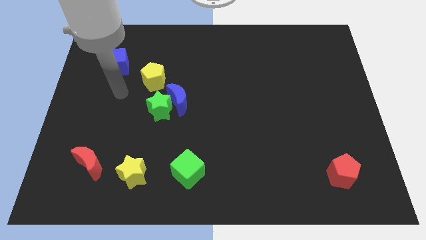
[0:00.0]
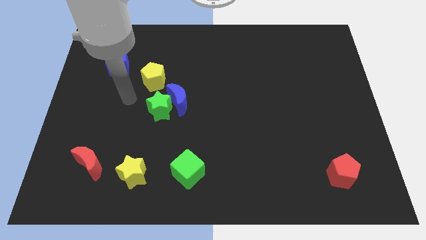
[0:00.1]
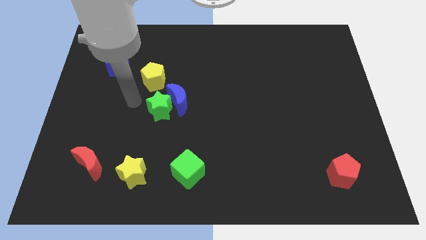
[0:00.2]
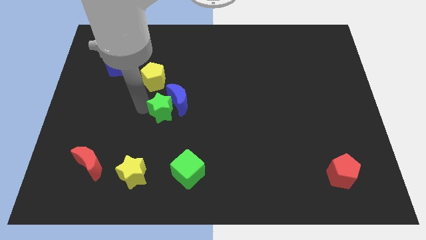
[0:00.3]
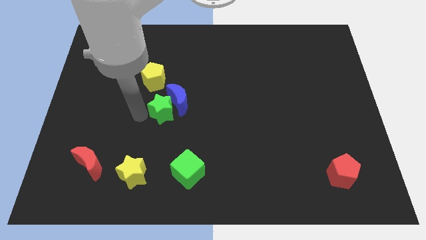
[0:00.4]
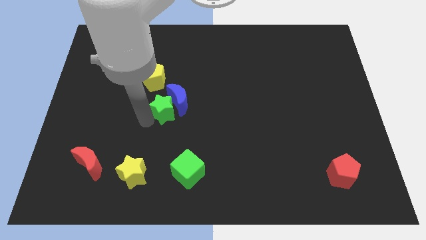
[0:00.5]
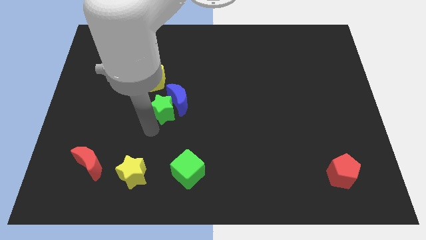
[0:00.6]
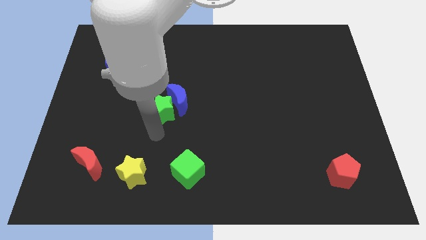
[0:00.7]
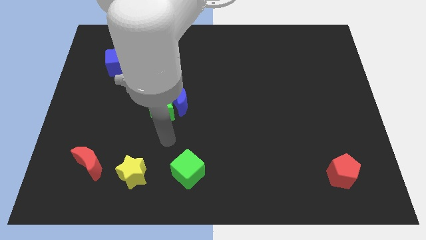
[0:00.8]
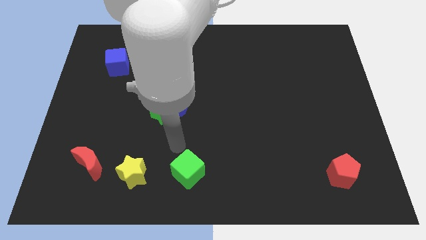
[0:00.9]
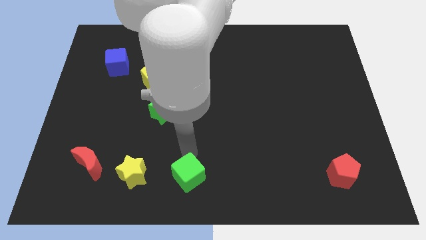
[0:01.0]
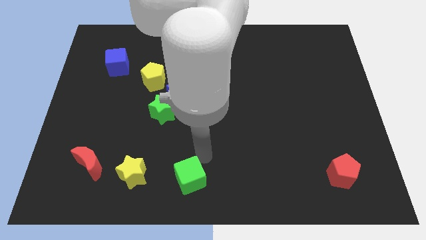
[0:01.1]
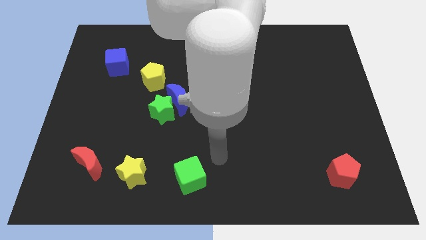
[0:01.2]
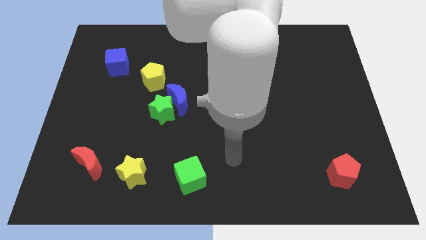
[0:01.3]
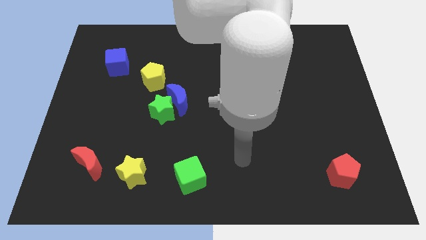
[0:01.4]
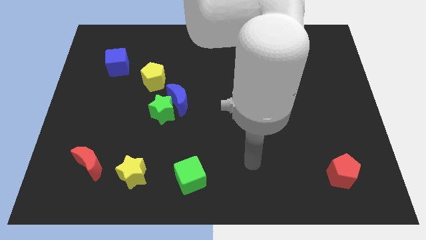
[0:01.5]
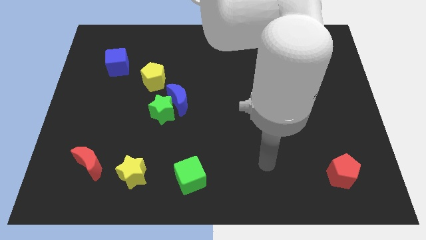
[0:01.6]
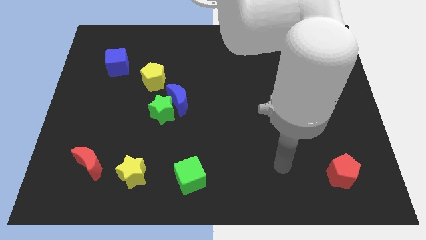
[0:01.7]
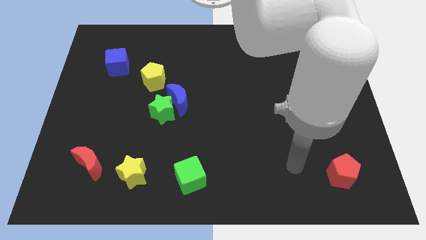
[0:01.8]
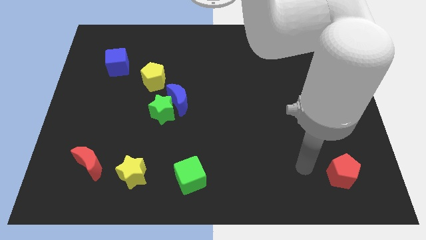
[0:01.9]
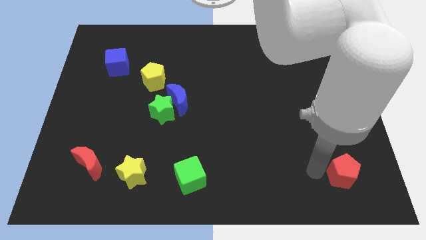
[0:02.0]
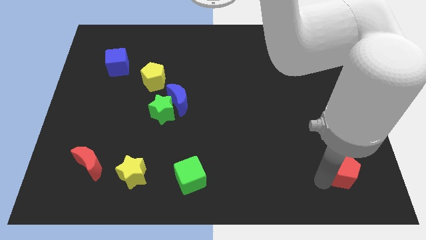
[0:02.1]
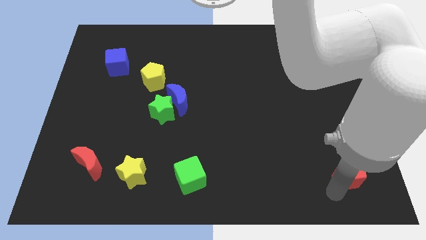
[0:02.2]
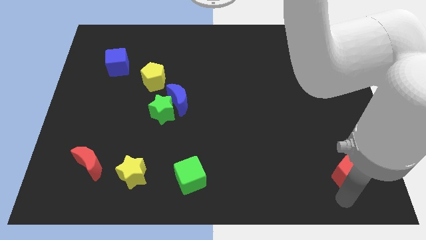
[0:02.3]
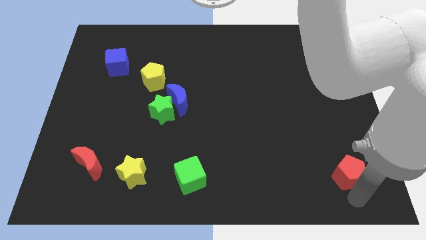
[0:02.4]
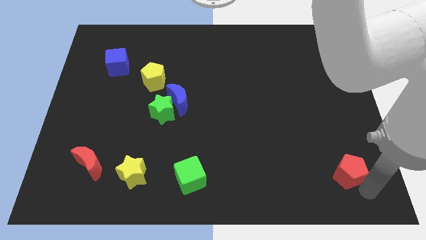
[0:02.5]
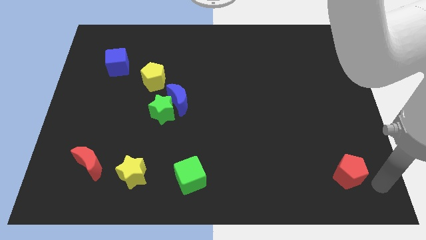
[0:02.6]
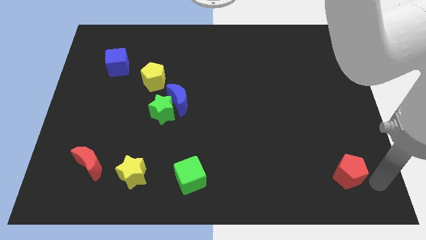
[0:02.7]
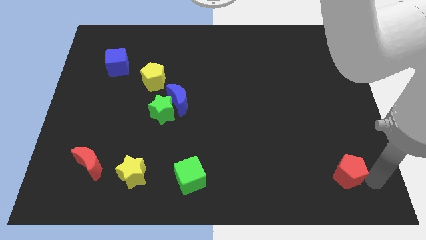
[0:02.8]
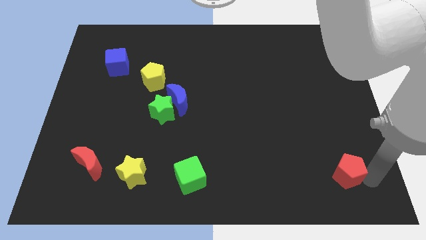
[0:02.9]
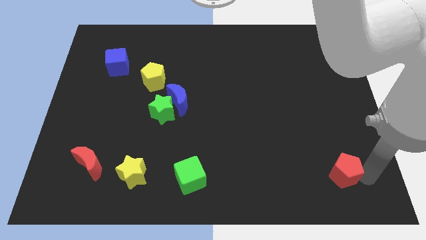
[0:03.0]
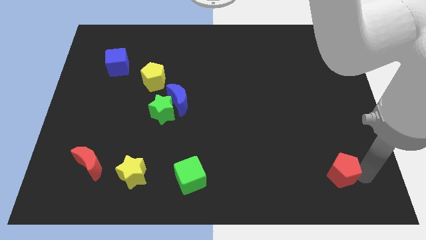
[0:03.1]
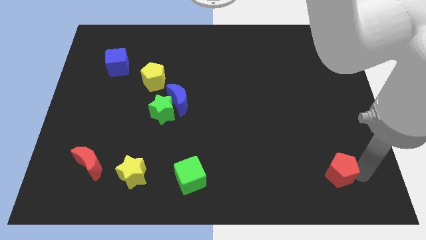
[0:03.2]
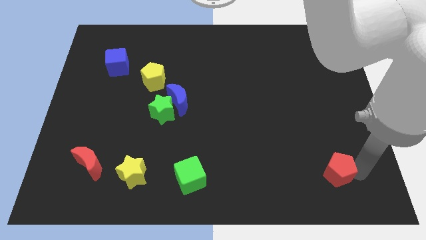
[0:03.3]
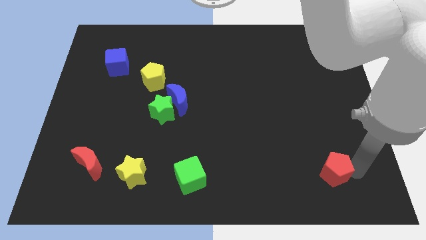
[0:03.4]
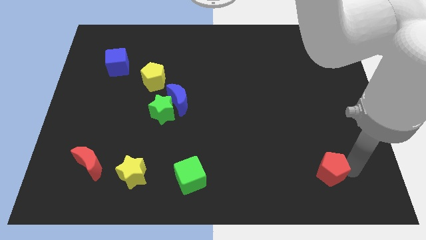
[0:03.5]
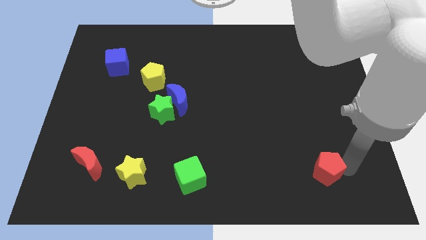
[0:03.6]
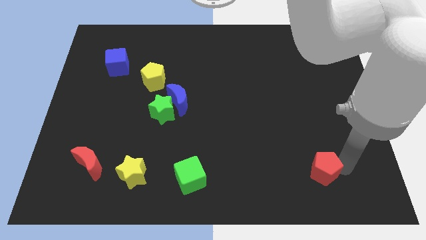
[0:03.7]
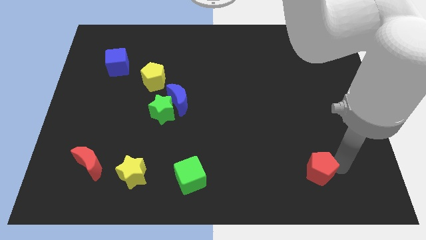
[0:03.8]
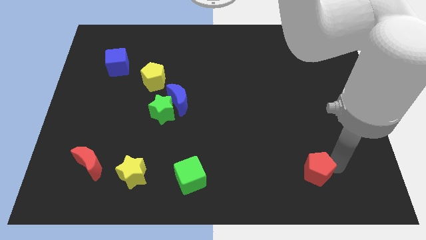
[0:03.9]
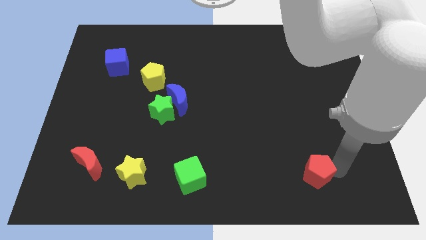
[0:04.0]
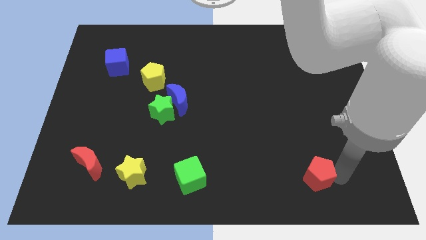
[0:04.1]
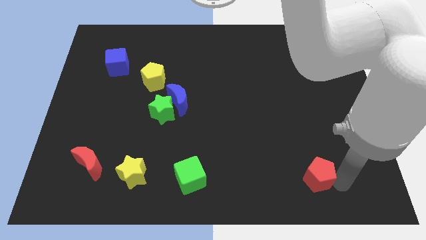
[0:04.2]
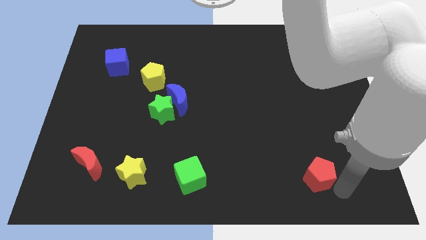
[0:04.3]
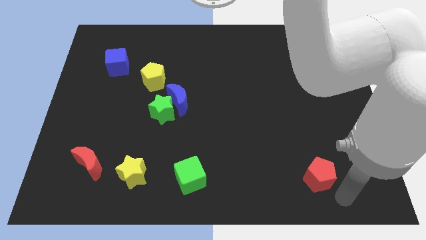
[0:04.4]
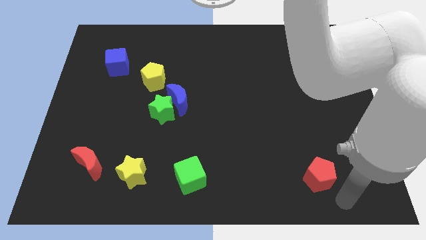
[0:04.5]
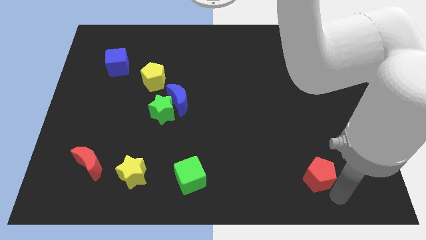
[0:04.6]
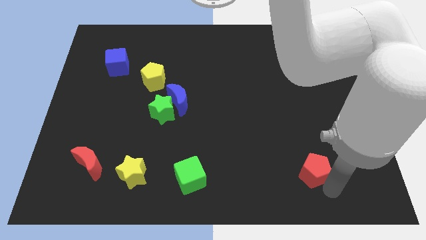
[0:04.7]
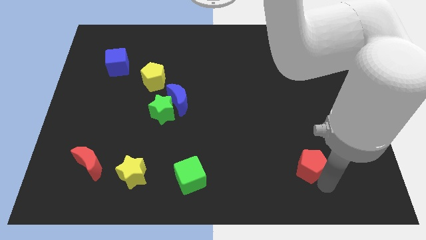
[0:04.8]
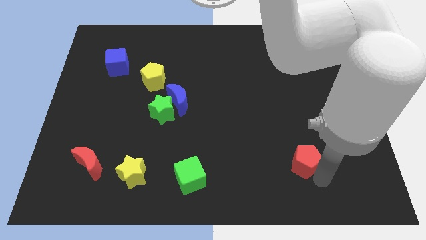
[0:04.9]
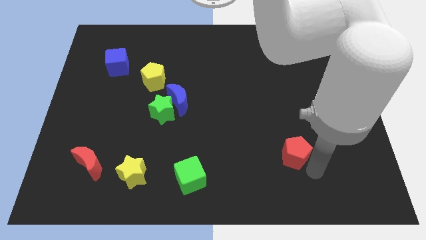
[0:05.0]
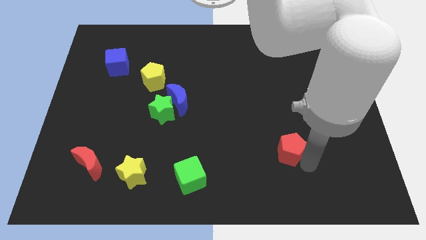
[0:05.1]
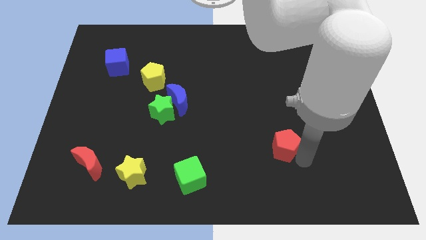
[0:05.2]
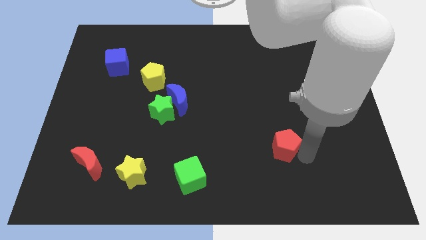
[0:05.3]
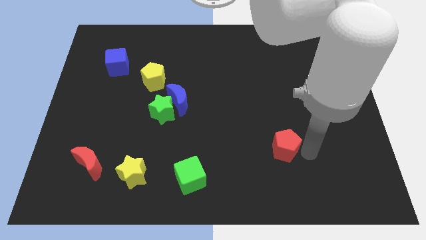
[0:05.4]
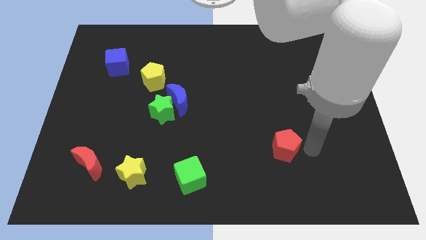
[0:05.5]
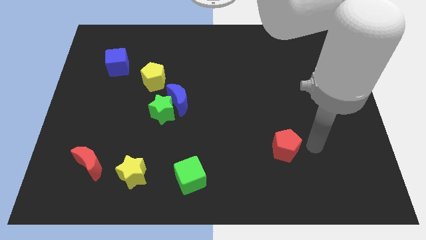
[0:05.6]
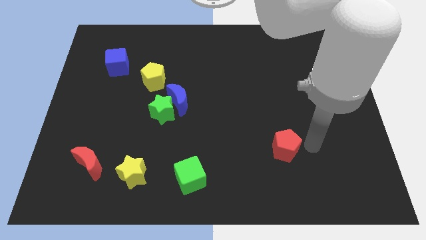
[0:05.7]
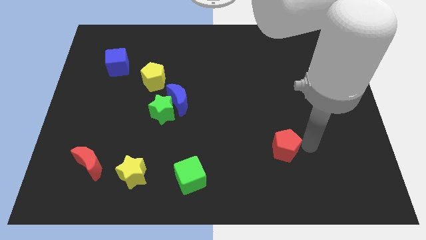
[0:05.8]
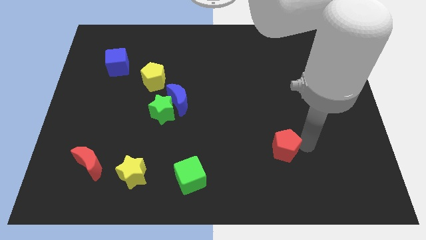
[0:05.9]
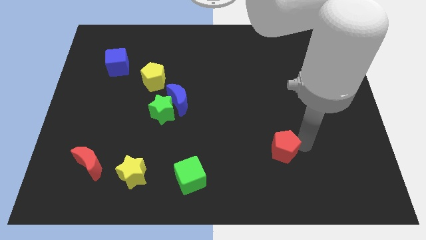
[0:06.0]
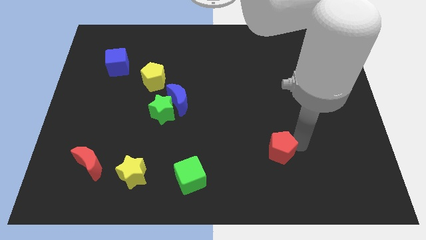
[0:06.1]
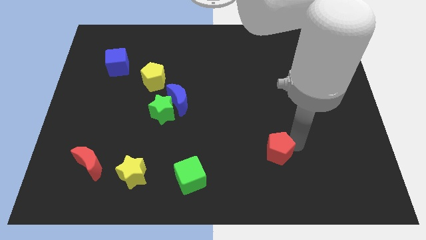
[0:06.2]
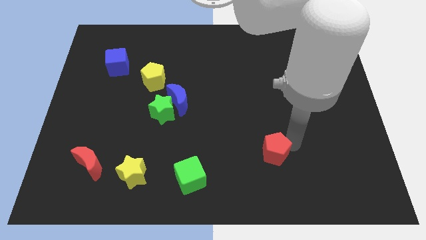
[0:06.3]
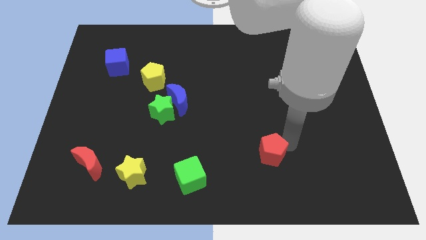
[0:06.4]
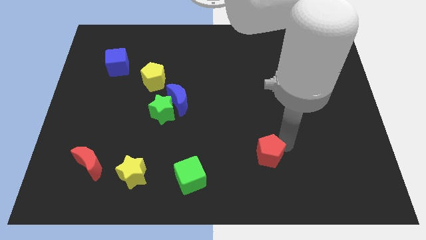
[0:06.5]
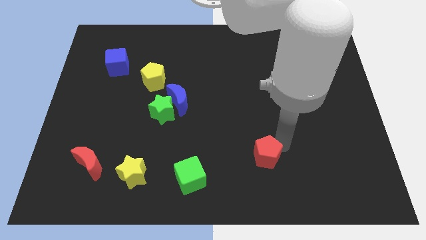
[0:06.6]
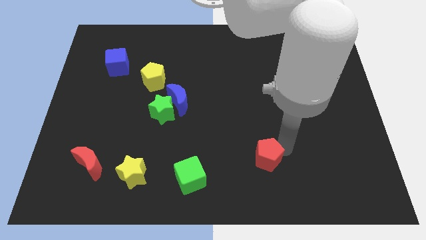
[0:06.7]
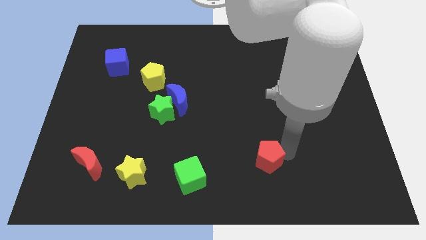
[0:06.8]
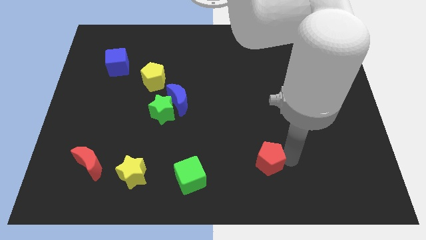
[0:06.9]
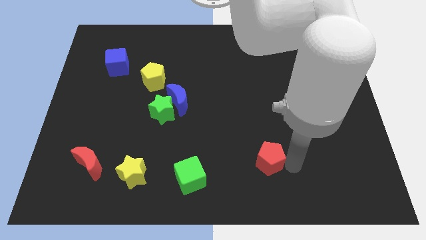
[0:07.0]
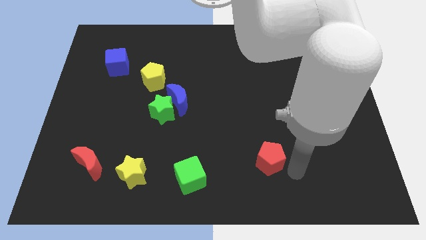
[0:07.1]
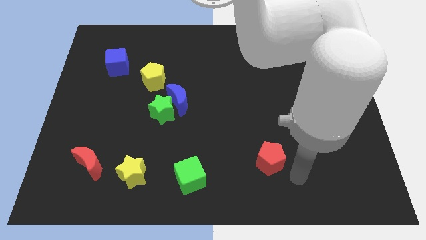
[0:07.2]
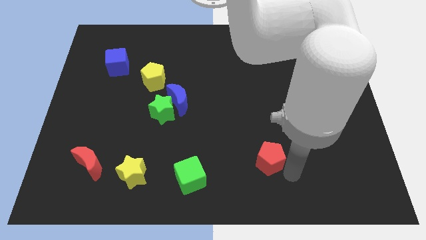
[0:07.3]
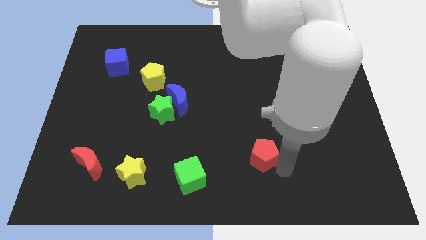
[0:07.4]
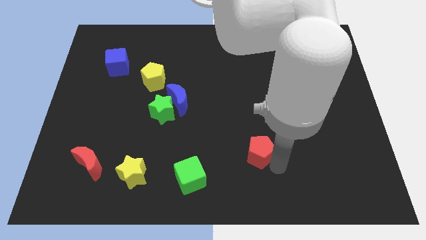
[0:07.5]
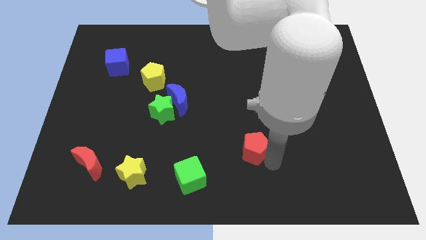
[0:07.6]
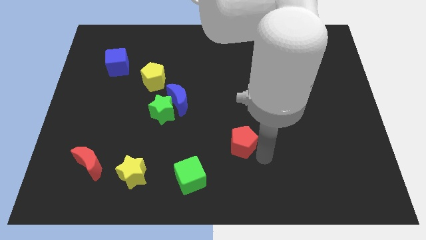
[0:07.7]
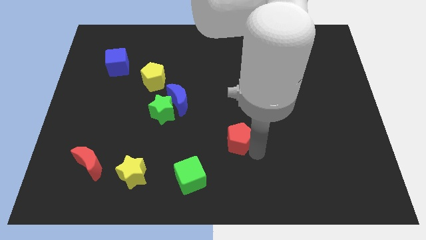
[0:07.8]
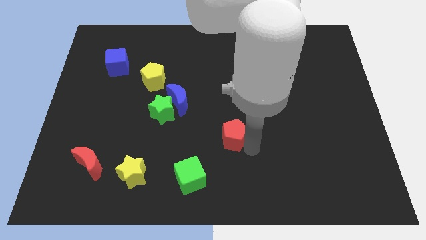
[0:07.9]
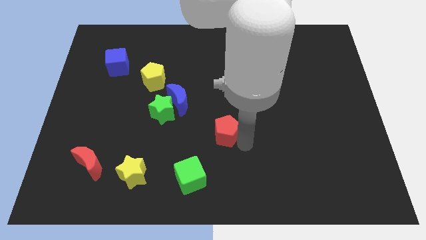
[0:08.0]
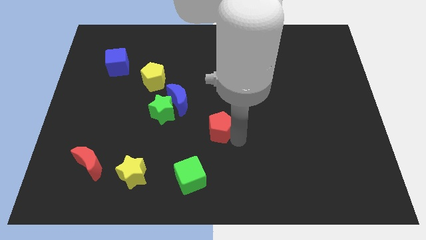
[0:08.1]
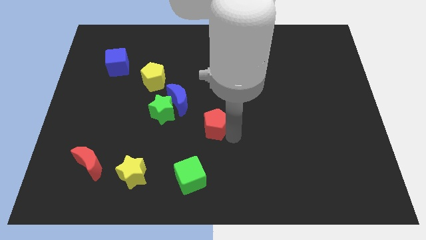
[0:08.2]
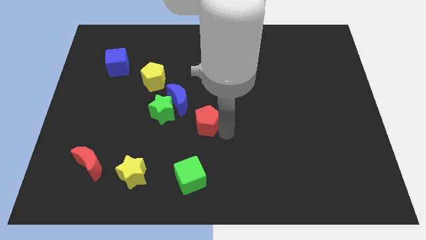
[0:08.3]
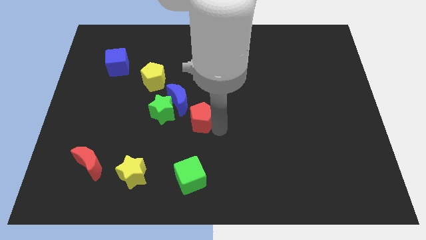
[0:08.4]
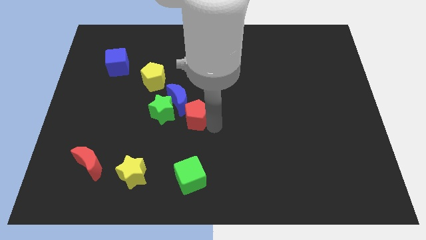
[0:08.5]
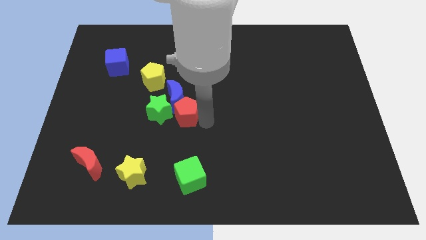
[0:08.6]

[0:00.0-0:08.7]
move the red pentagon to the green star
